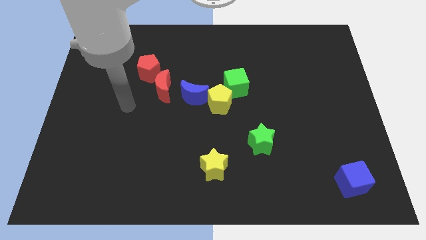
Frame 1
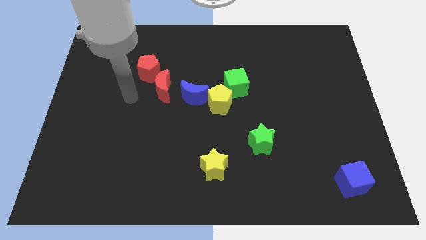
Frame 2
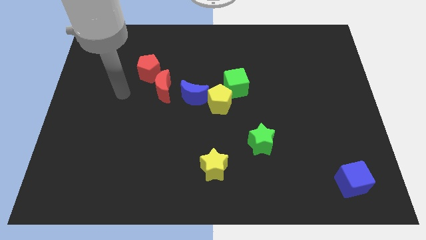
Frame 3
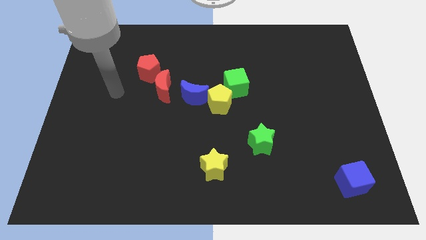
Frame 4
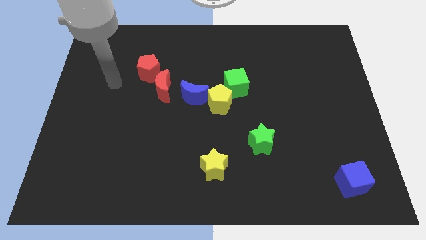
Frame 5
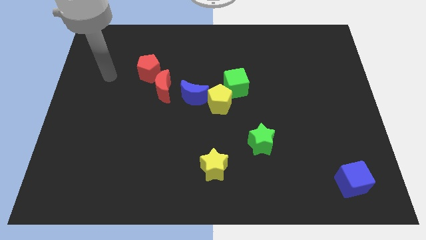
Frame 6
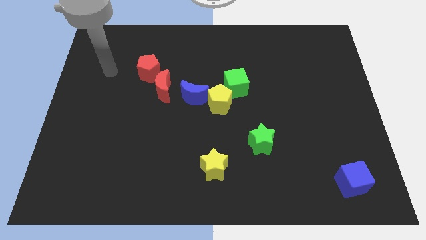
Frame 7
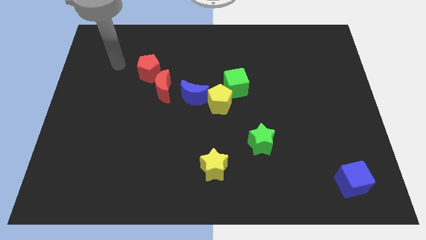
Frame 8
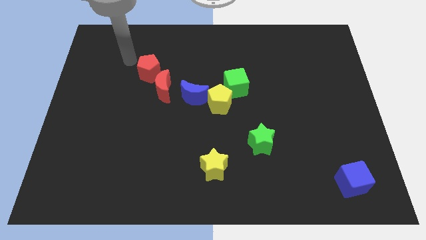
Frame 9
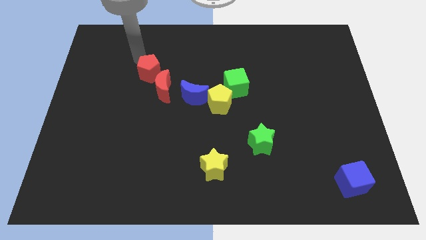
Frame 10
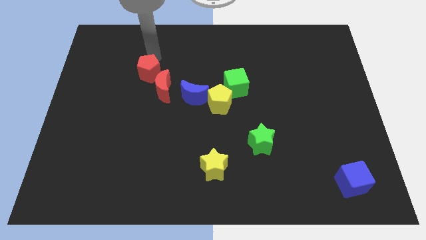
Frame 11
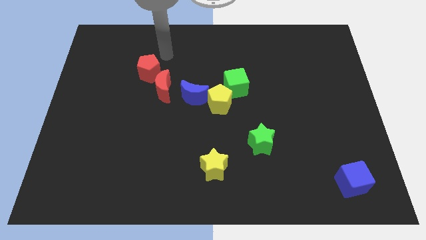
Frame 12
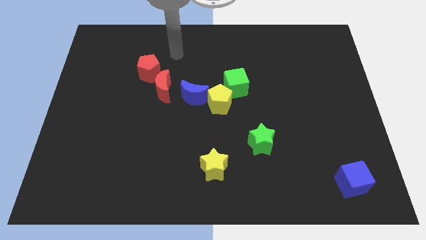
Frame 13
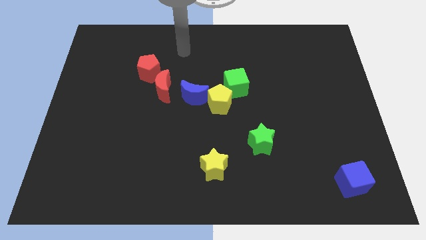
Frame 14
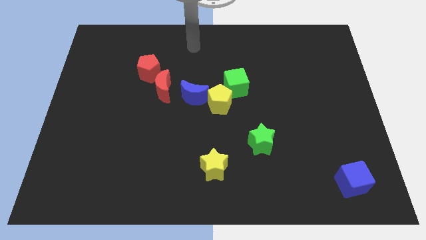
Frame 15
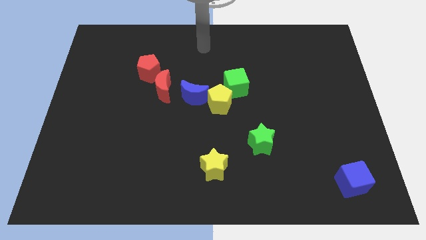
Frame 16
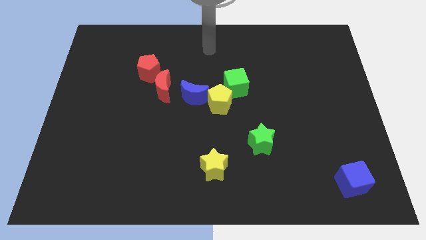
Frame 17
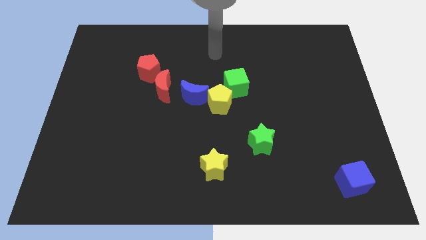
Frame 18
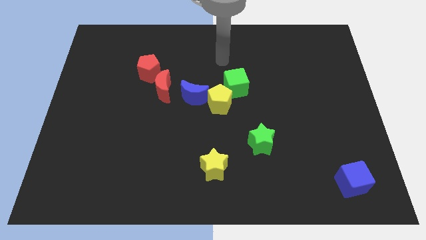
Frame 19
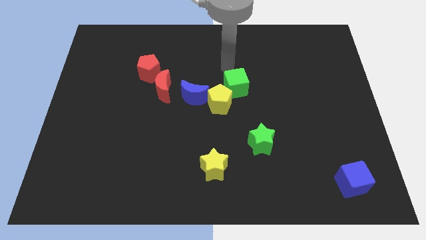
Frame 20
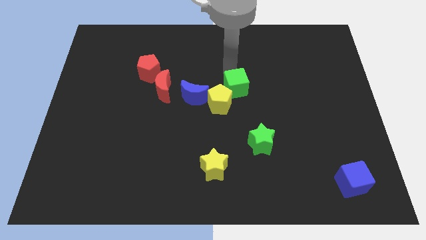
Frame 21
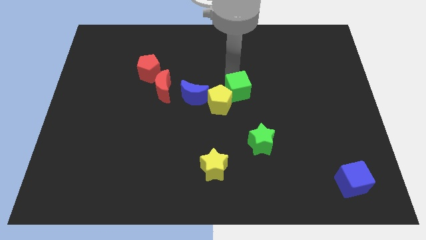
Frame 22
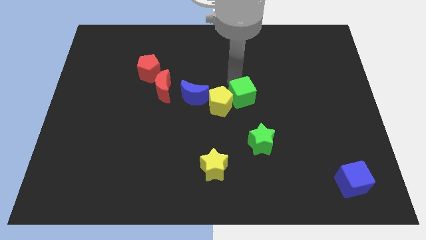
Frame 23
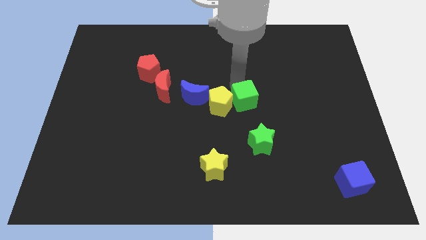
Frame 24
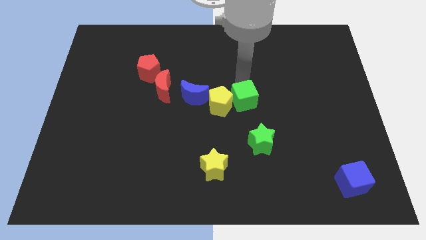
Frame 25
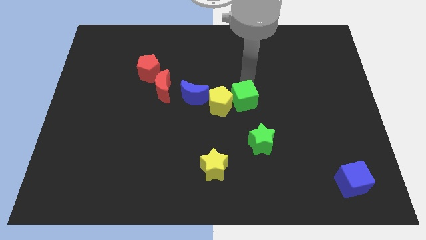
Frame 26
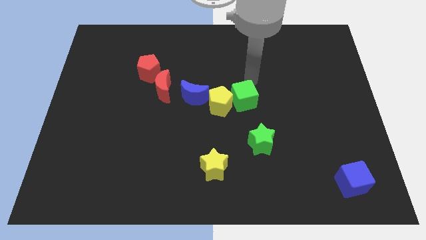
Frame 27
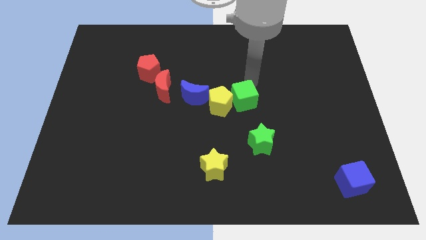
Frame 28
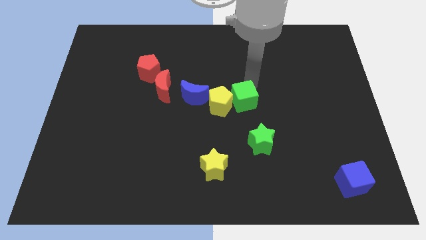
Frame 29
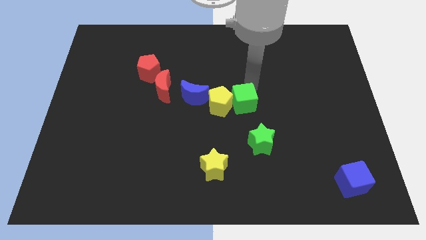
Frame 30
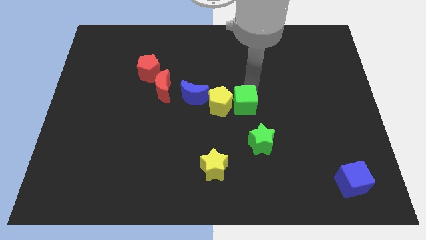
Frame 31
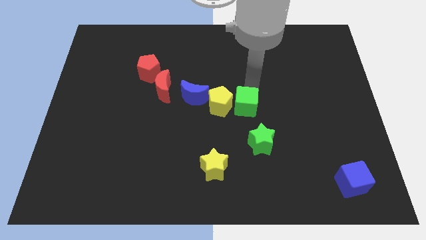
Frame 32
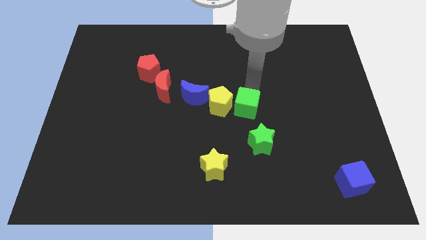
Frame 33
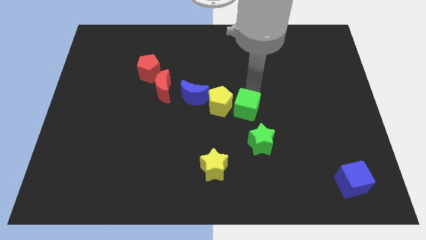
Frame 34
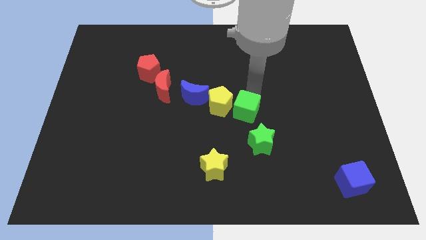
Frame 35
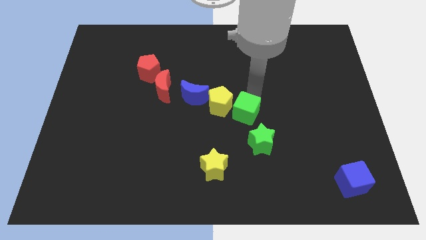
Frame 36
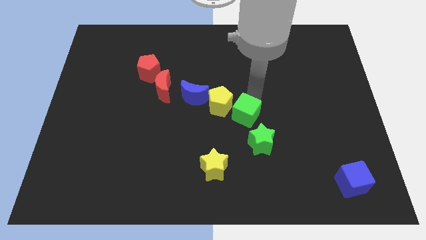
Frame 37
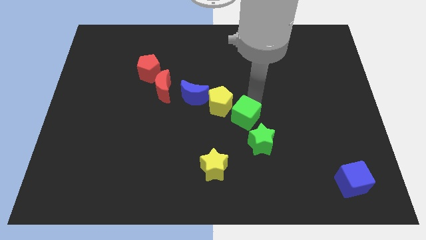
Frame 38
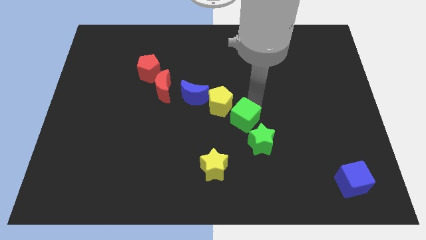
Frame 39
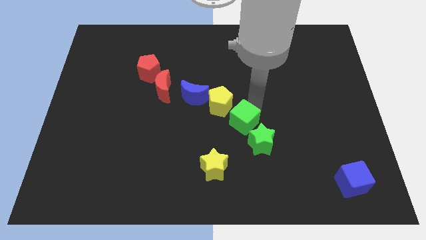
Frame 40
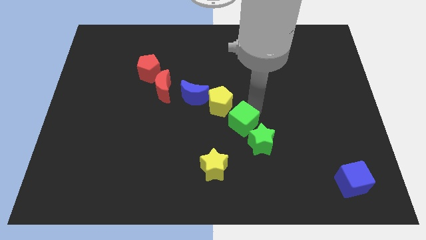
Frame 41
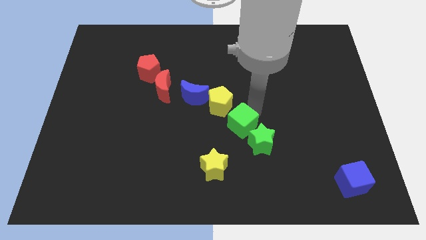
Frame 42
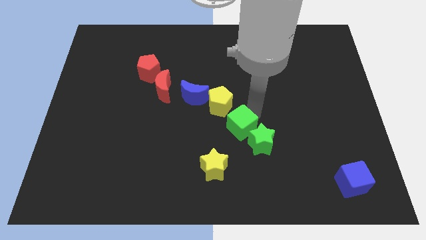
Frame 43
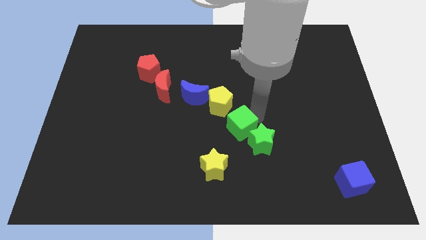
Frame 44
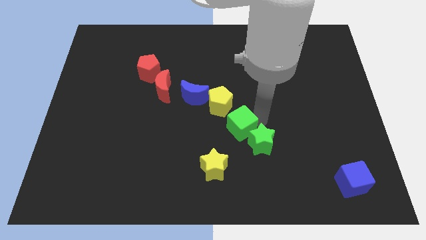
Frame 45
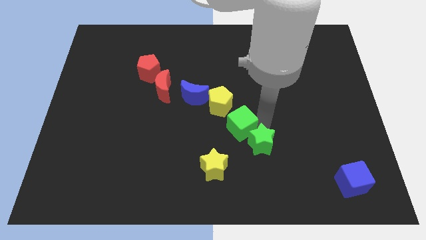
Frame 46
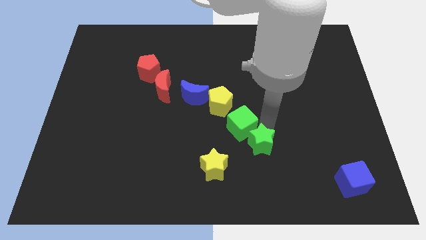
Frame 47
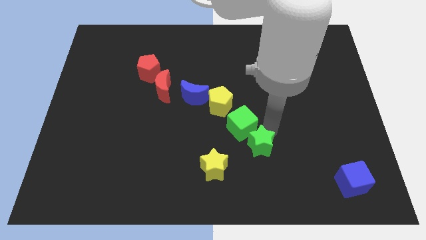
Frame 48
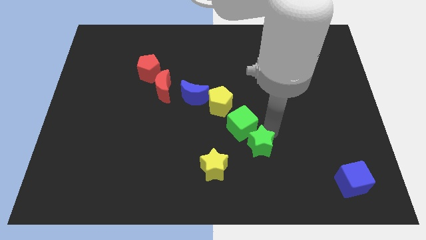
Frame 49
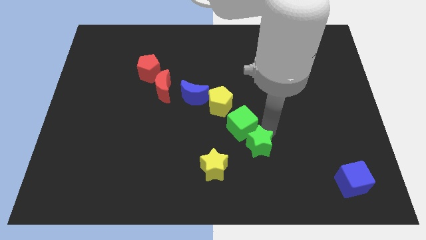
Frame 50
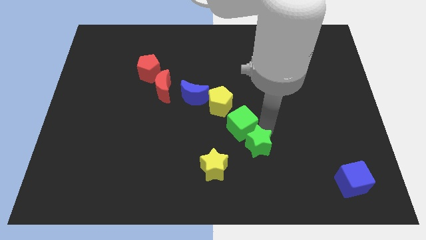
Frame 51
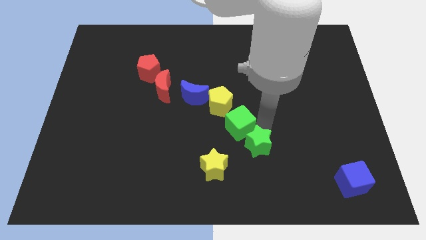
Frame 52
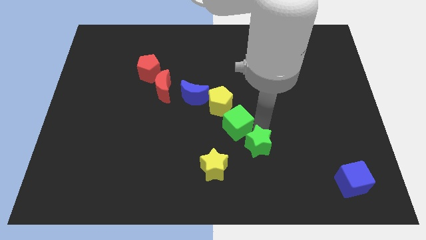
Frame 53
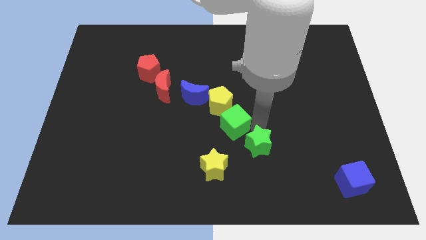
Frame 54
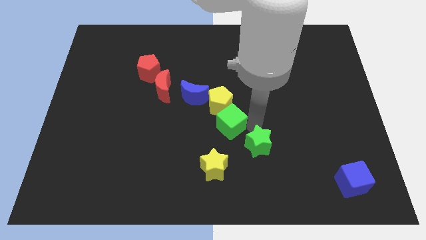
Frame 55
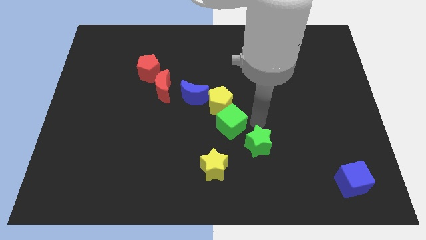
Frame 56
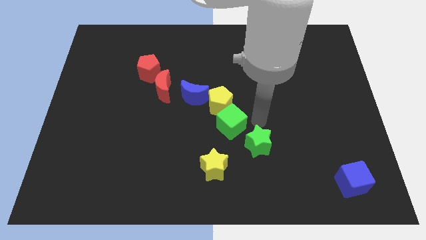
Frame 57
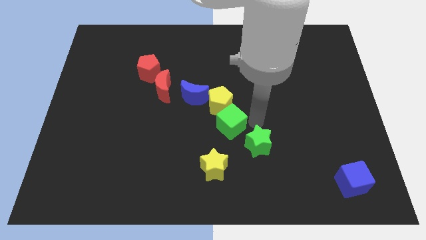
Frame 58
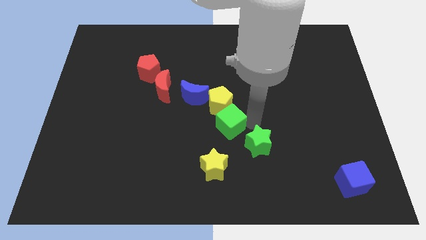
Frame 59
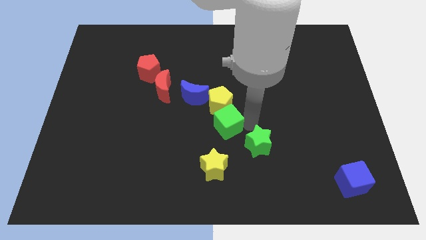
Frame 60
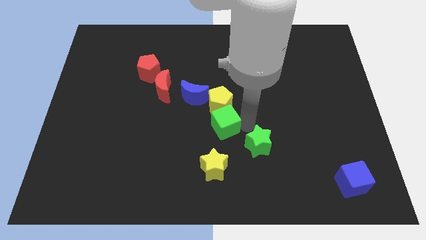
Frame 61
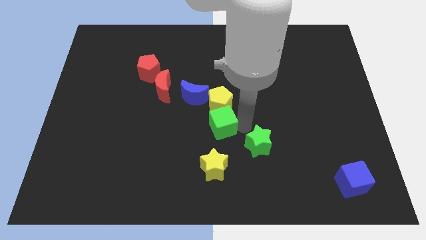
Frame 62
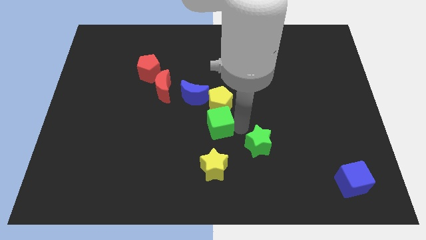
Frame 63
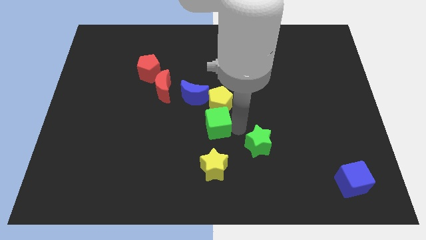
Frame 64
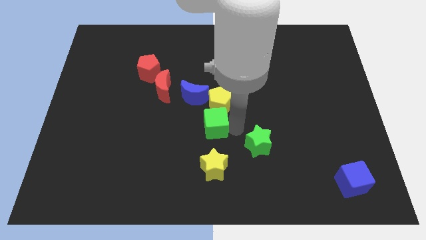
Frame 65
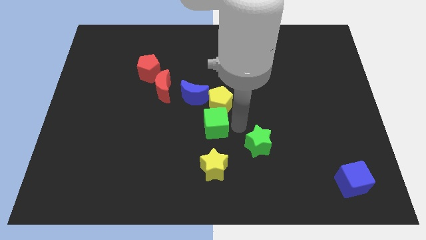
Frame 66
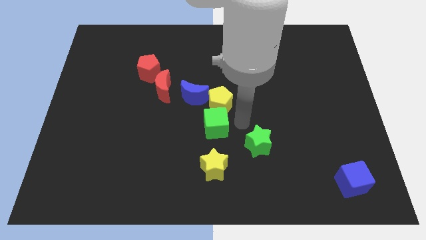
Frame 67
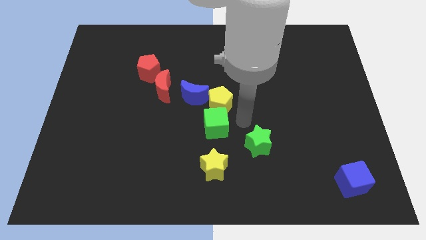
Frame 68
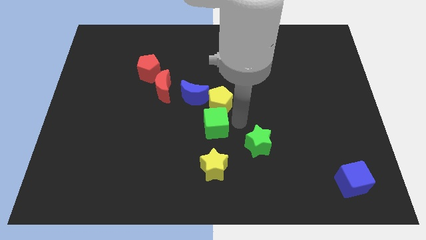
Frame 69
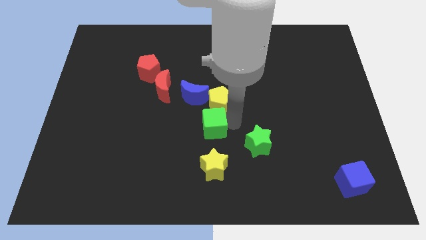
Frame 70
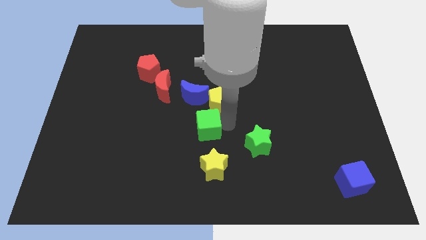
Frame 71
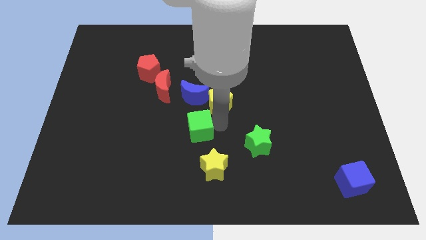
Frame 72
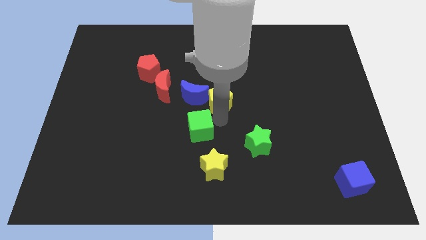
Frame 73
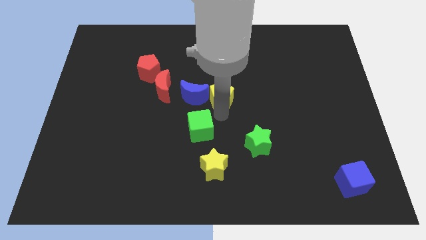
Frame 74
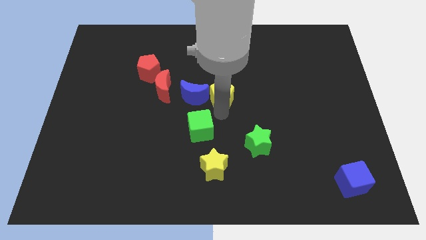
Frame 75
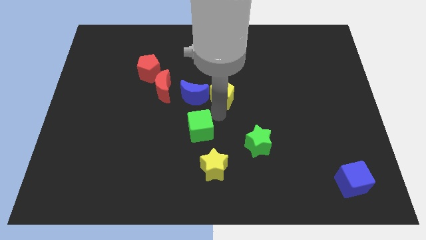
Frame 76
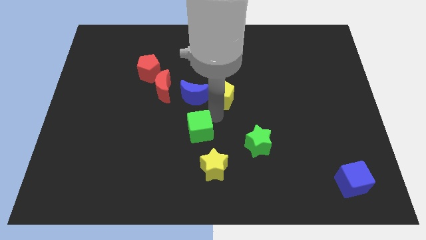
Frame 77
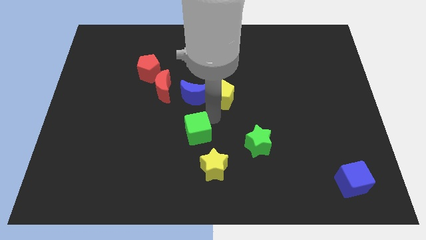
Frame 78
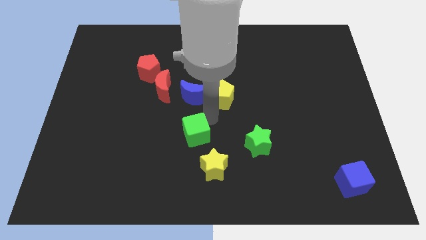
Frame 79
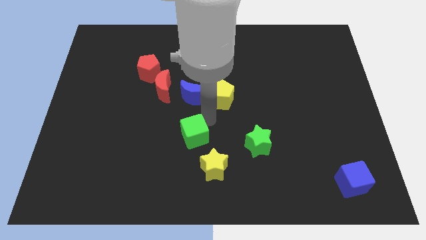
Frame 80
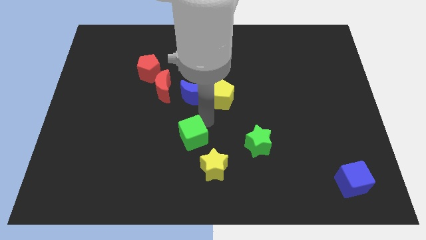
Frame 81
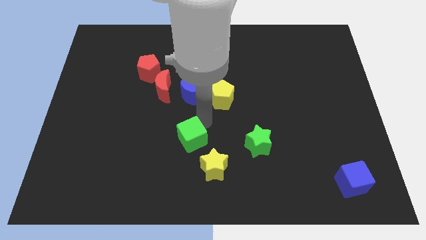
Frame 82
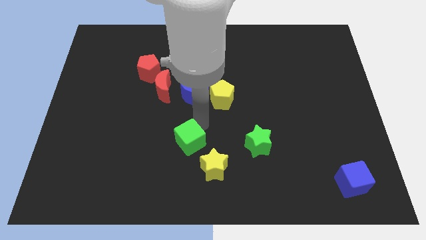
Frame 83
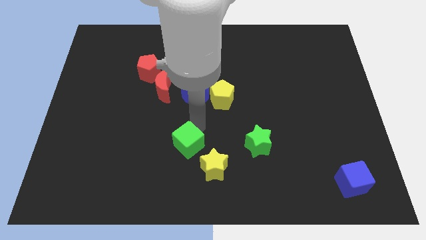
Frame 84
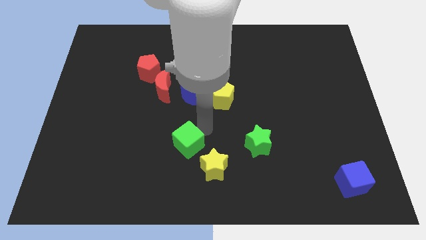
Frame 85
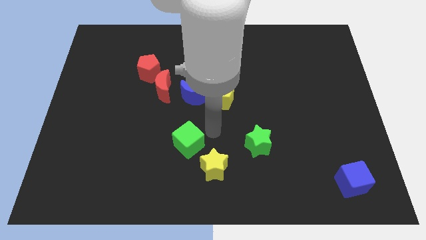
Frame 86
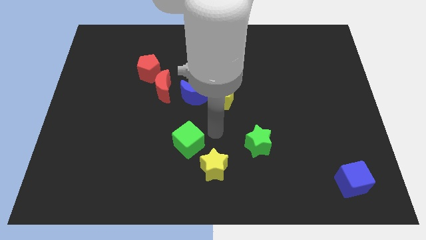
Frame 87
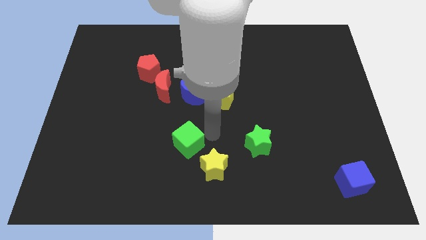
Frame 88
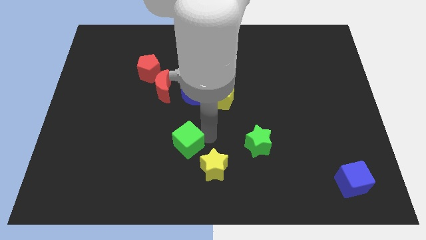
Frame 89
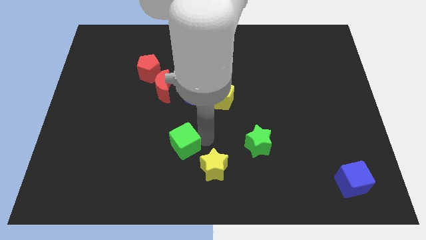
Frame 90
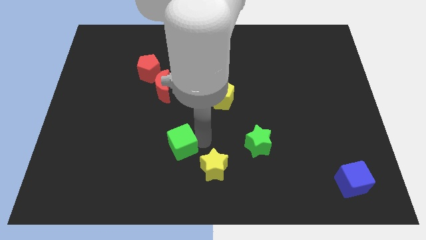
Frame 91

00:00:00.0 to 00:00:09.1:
slide the green cube down and then to the left
